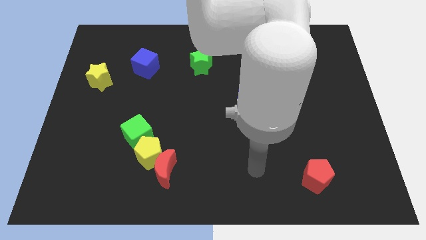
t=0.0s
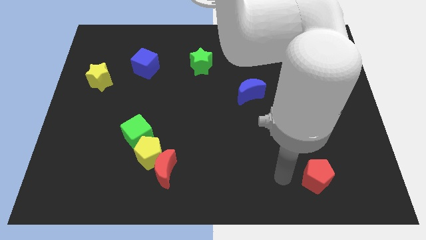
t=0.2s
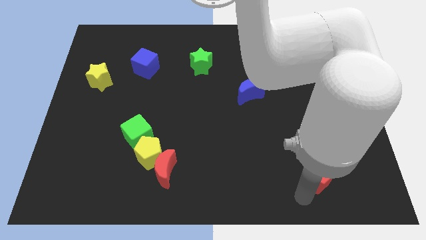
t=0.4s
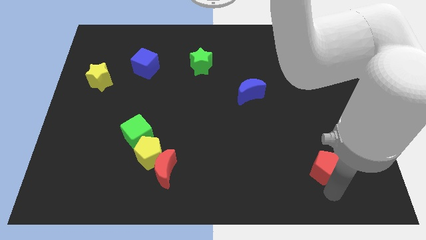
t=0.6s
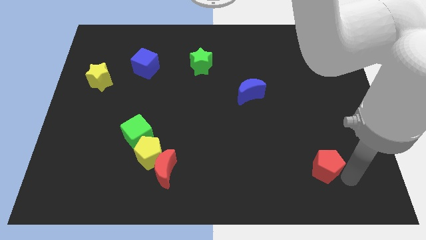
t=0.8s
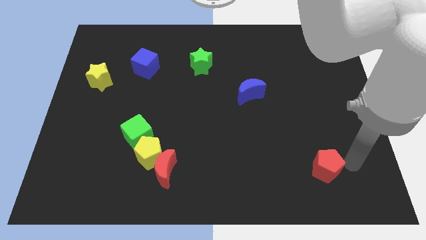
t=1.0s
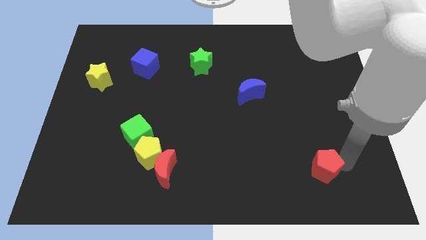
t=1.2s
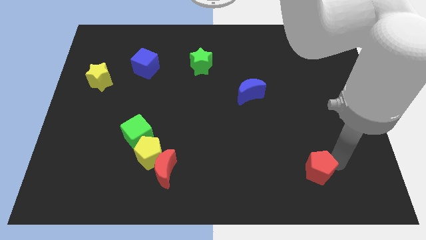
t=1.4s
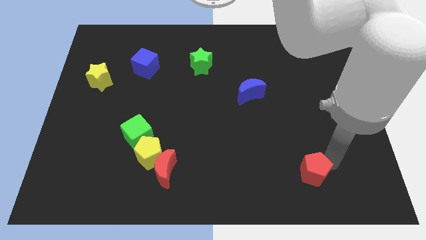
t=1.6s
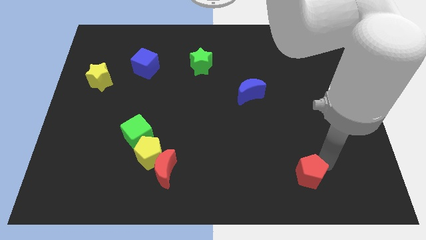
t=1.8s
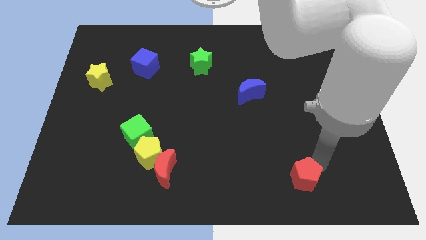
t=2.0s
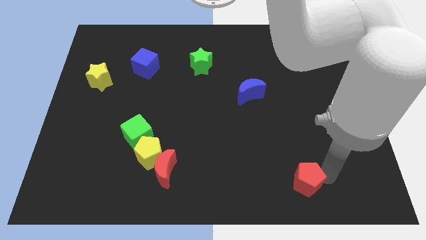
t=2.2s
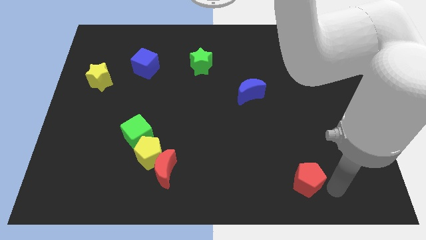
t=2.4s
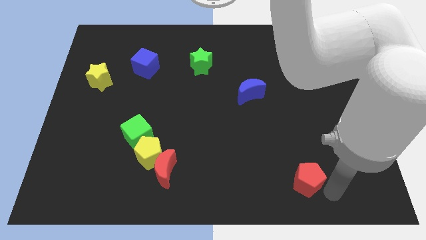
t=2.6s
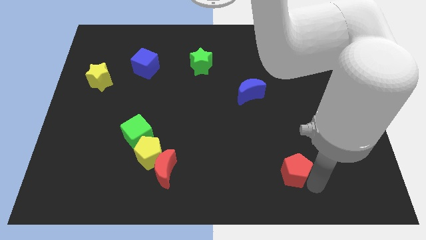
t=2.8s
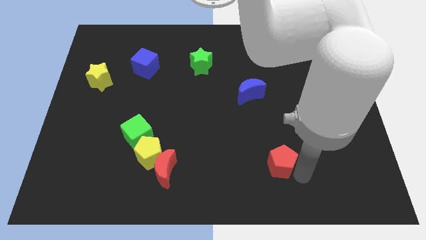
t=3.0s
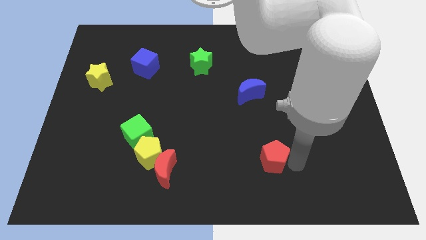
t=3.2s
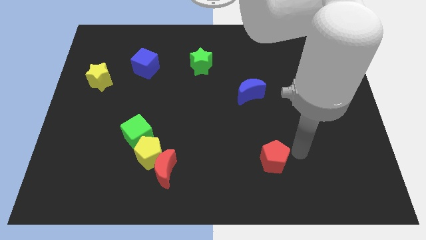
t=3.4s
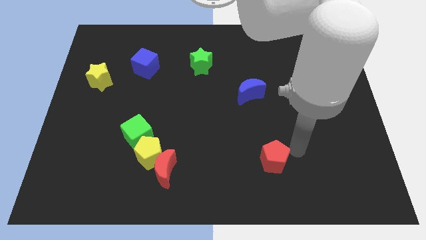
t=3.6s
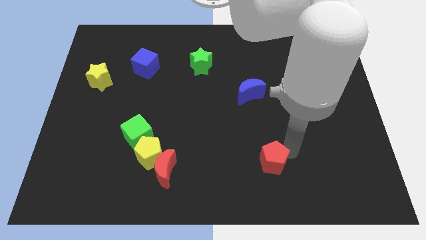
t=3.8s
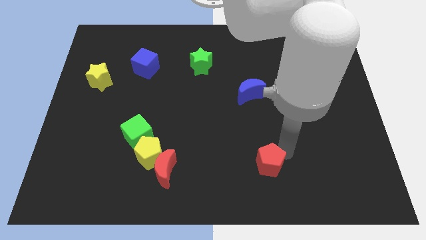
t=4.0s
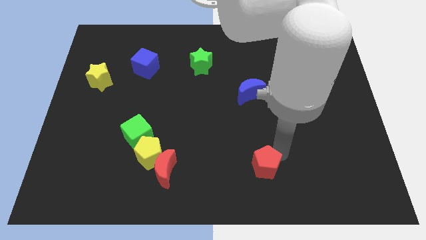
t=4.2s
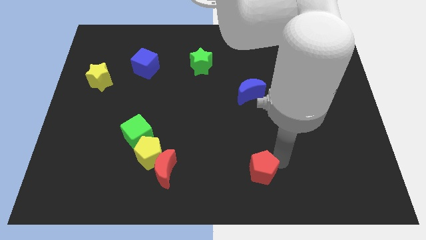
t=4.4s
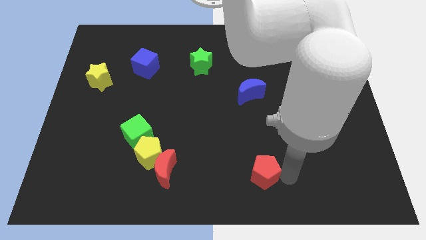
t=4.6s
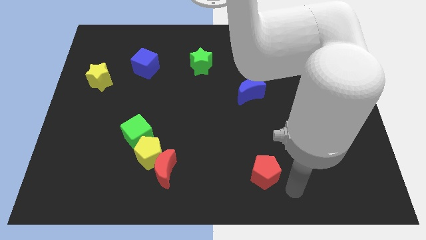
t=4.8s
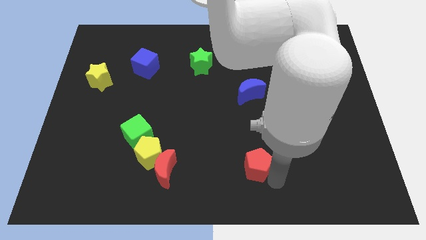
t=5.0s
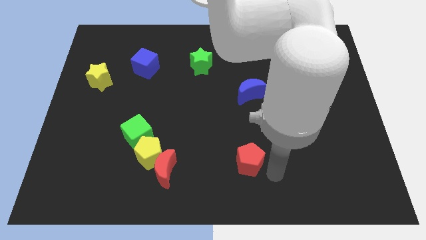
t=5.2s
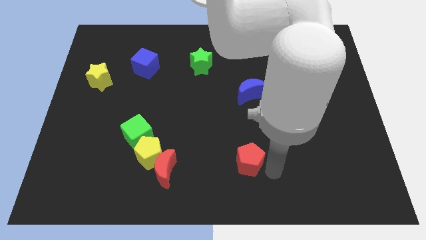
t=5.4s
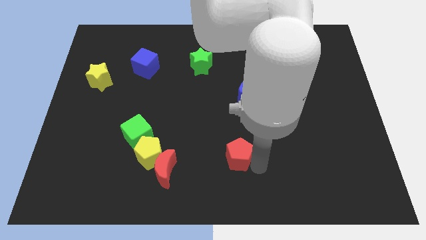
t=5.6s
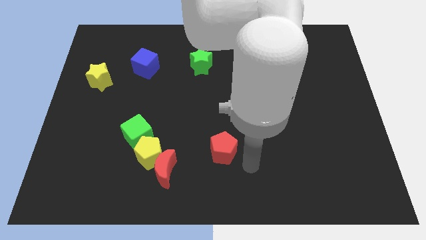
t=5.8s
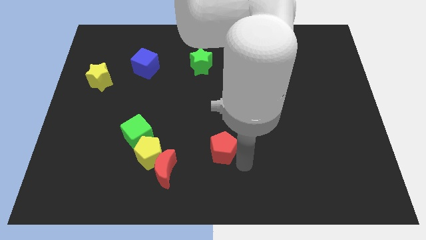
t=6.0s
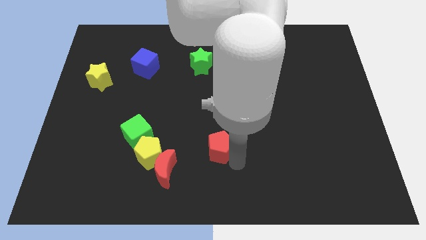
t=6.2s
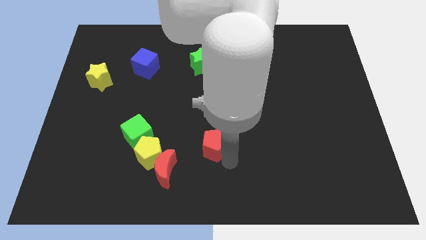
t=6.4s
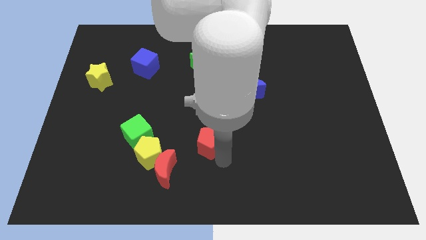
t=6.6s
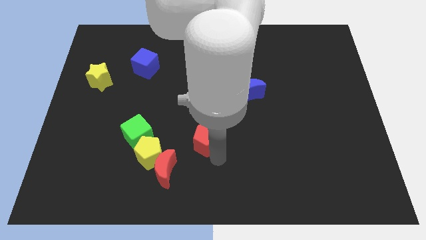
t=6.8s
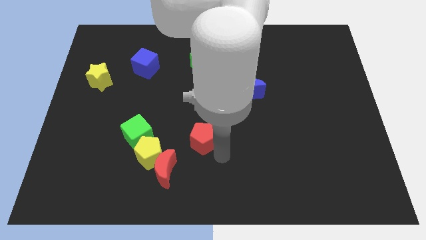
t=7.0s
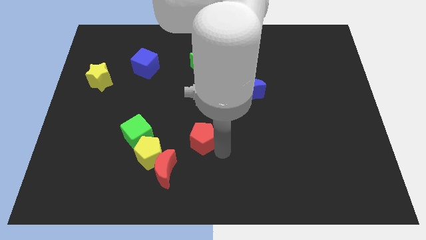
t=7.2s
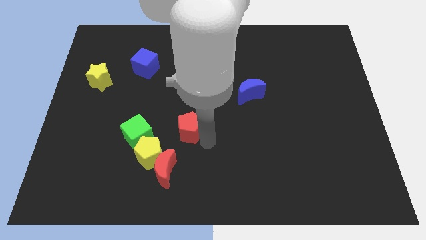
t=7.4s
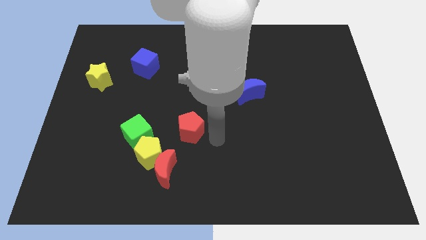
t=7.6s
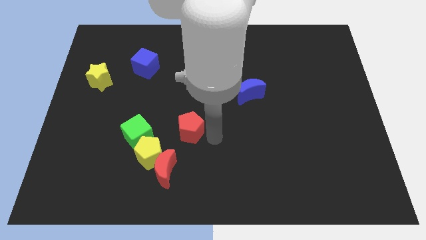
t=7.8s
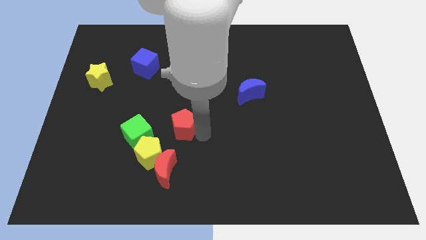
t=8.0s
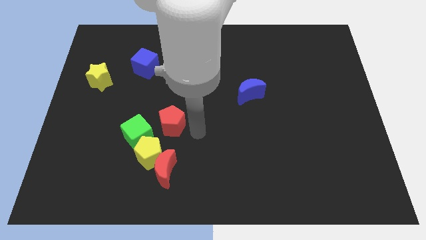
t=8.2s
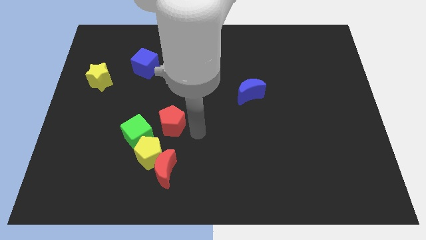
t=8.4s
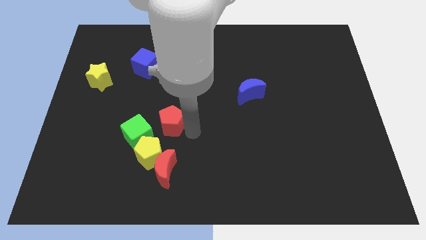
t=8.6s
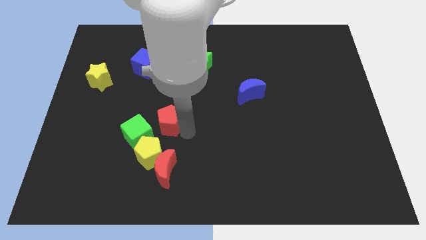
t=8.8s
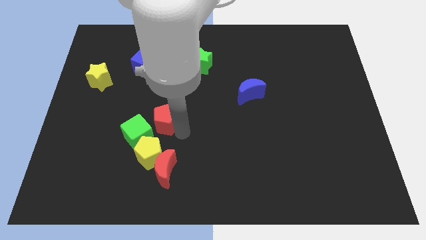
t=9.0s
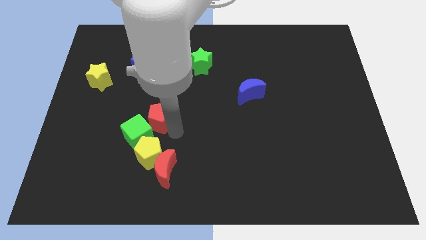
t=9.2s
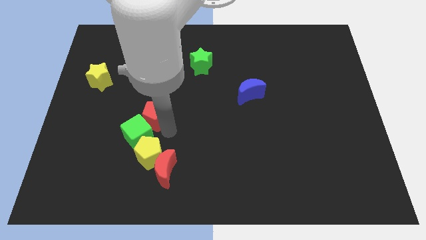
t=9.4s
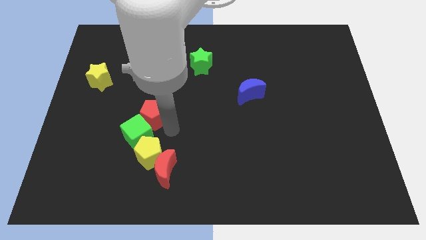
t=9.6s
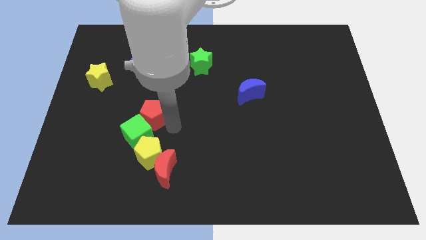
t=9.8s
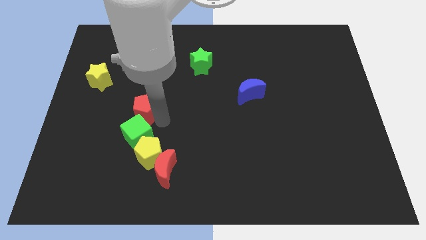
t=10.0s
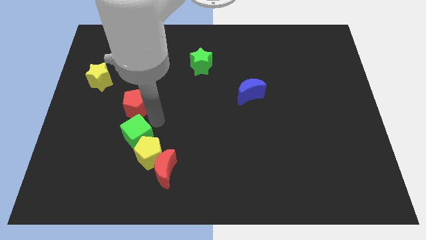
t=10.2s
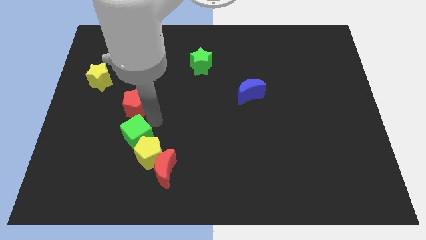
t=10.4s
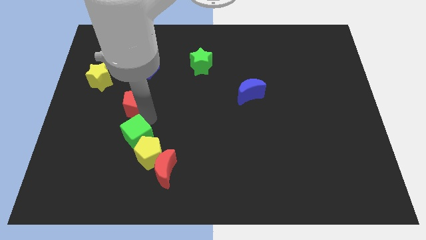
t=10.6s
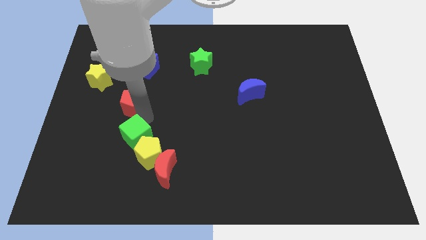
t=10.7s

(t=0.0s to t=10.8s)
move the red pentagon to the bottom right side of the yellow star

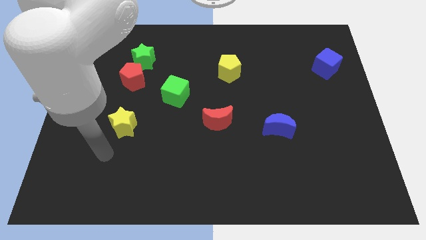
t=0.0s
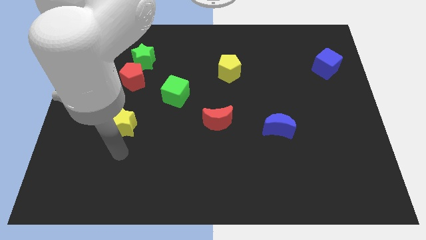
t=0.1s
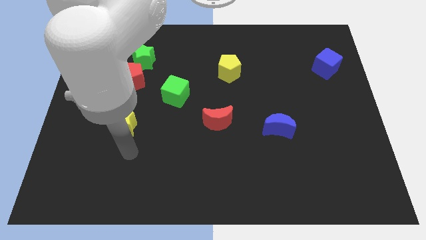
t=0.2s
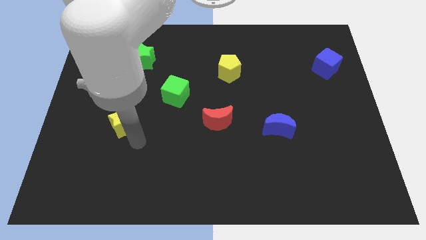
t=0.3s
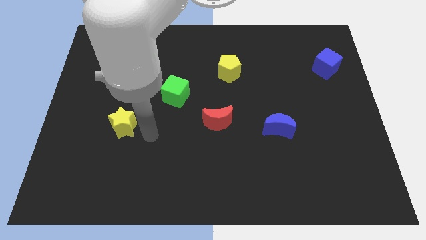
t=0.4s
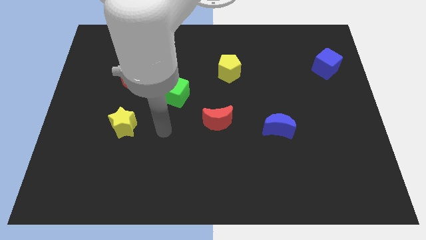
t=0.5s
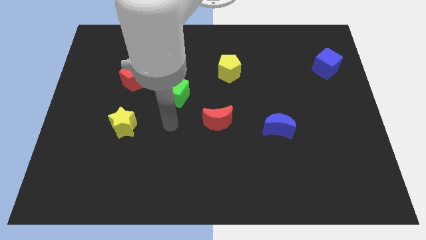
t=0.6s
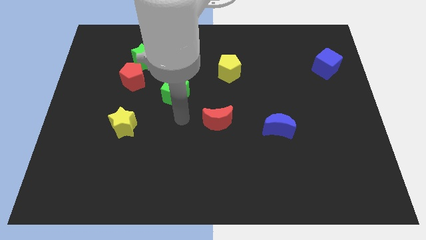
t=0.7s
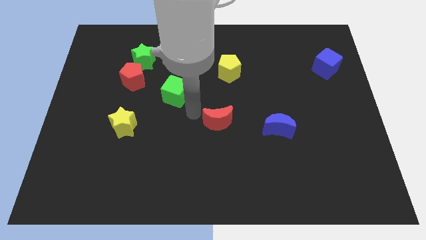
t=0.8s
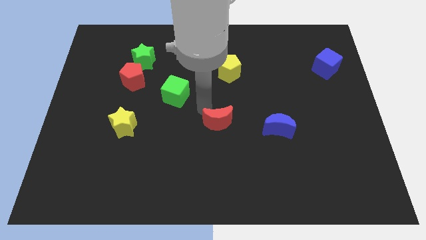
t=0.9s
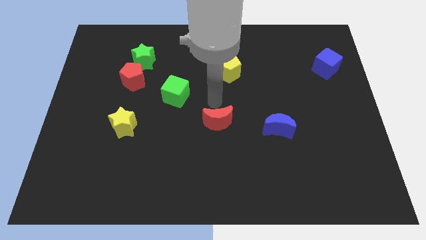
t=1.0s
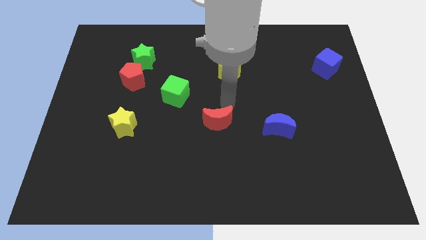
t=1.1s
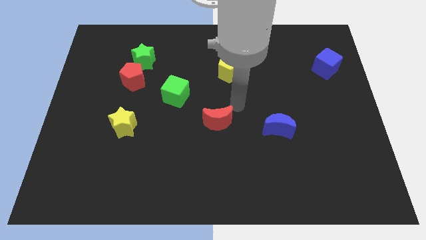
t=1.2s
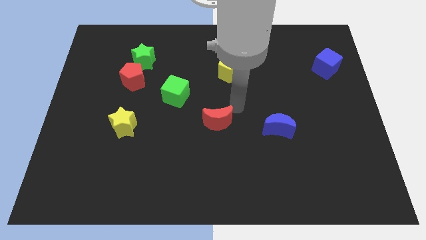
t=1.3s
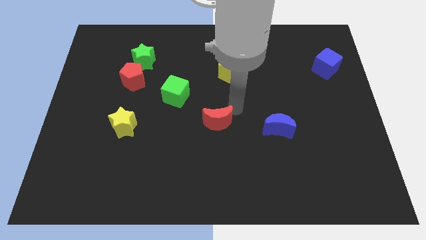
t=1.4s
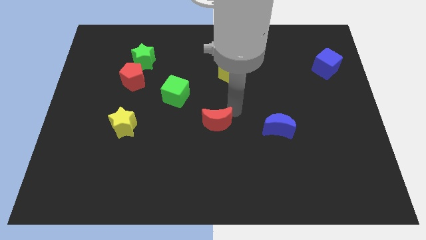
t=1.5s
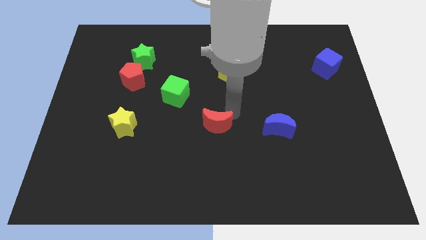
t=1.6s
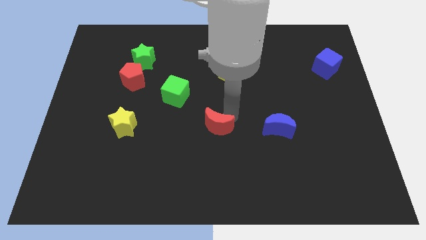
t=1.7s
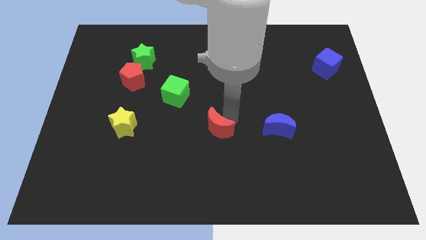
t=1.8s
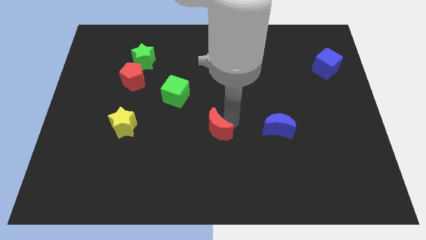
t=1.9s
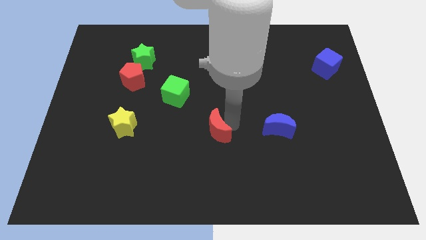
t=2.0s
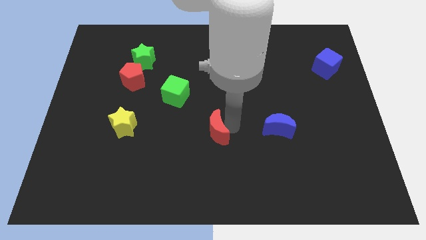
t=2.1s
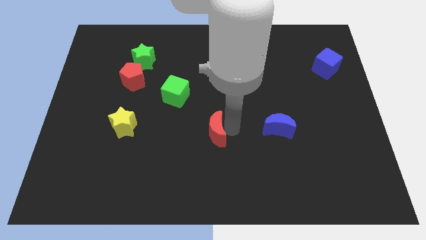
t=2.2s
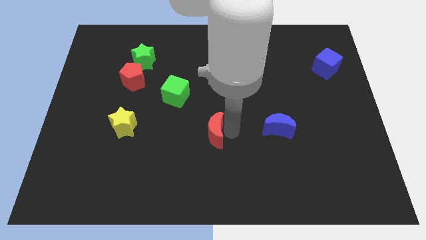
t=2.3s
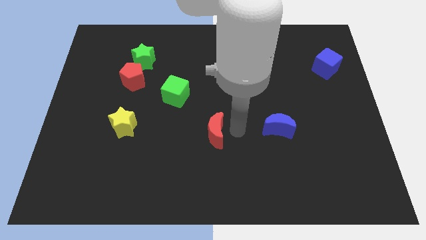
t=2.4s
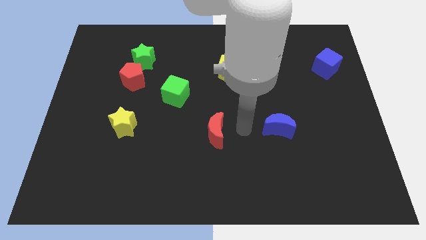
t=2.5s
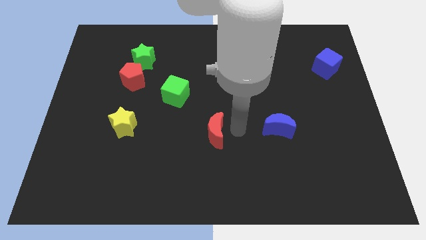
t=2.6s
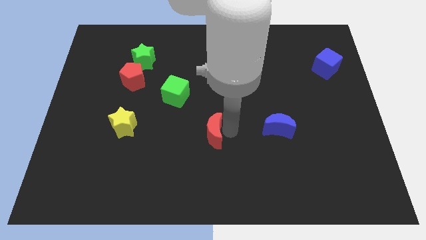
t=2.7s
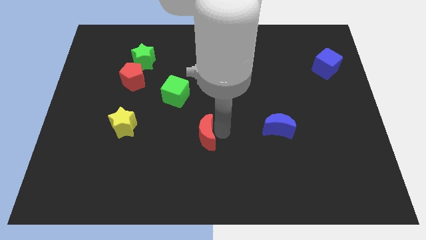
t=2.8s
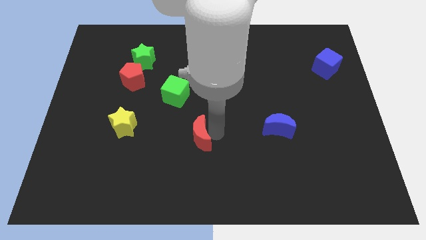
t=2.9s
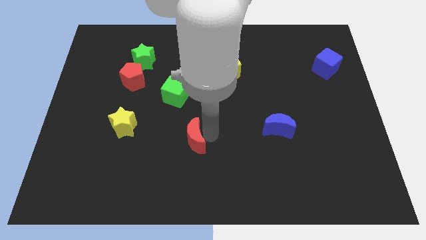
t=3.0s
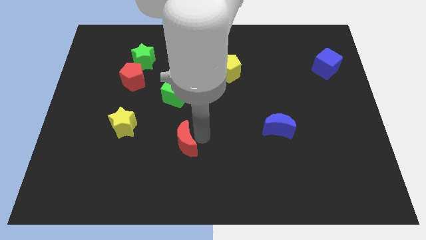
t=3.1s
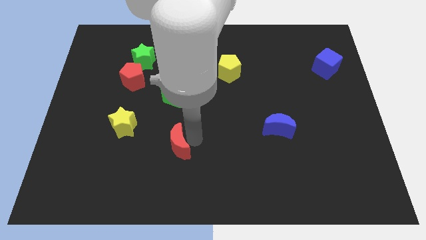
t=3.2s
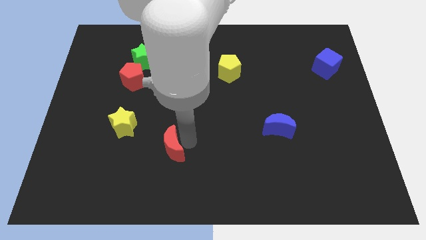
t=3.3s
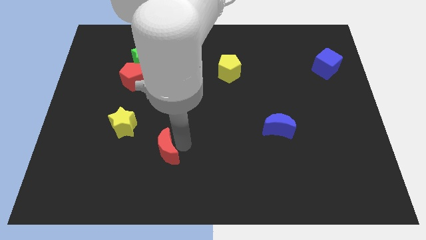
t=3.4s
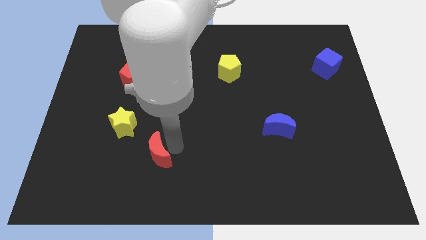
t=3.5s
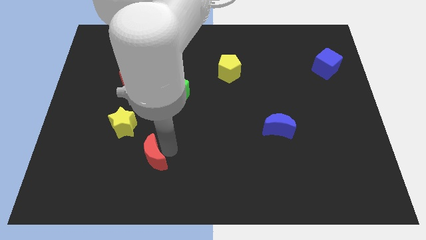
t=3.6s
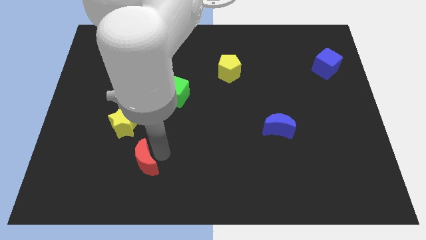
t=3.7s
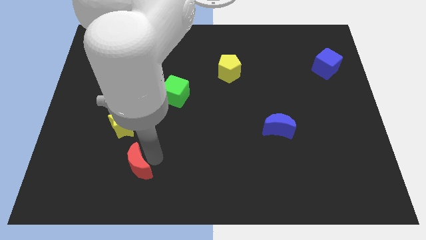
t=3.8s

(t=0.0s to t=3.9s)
move the red moon to the bottom side of the yellow star
